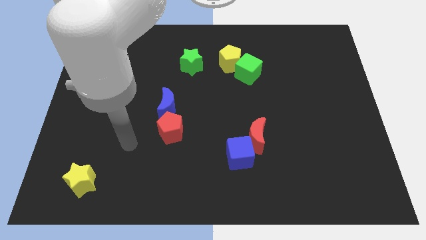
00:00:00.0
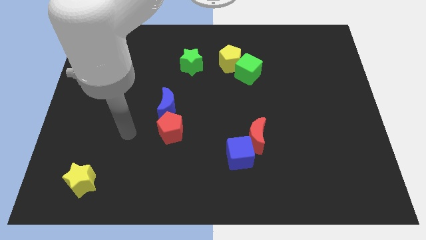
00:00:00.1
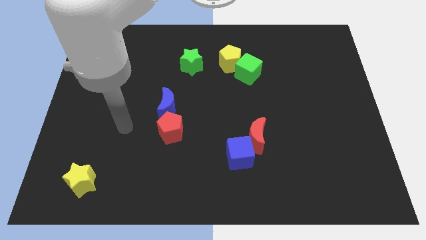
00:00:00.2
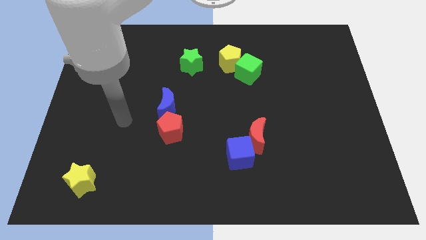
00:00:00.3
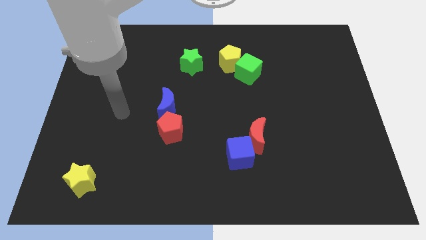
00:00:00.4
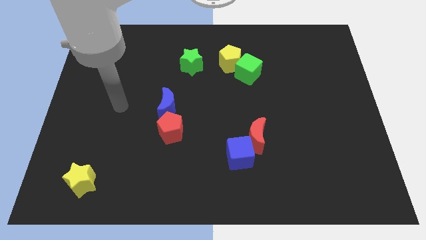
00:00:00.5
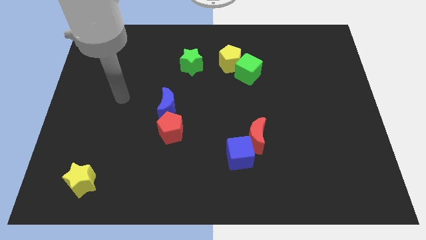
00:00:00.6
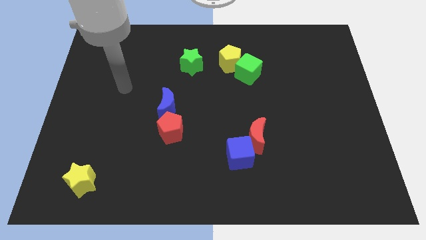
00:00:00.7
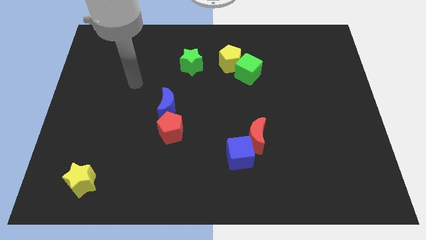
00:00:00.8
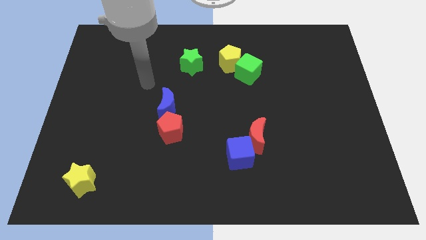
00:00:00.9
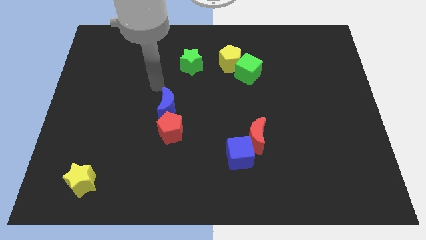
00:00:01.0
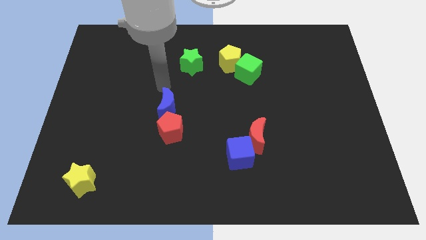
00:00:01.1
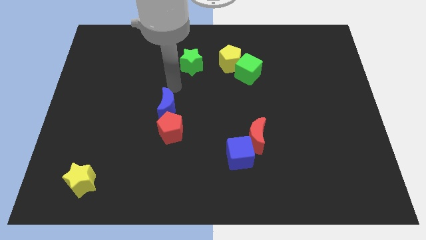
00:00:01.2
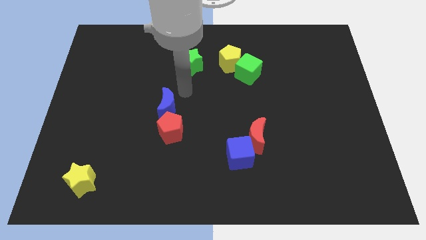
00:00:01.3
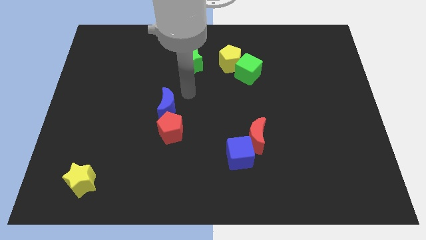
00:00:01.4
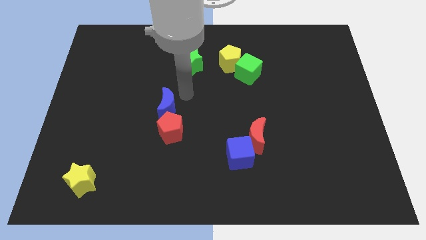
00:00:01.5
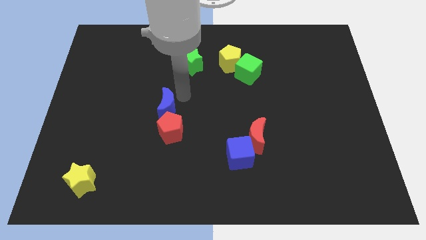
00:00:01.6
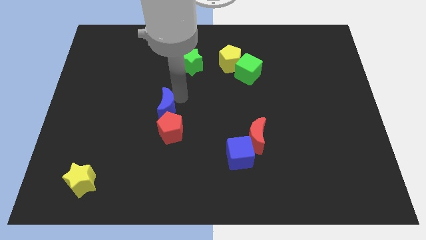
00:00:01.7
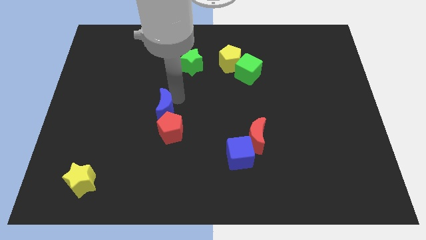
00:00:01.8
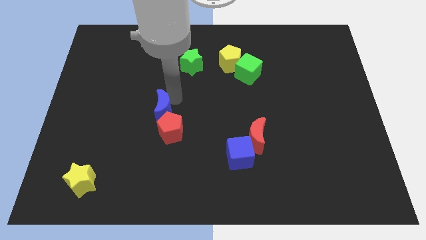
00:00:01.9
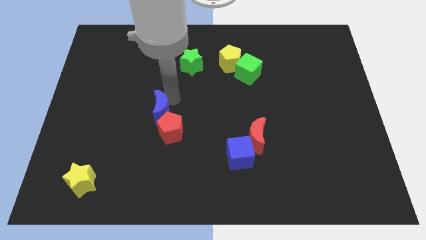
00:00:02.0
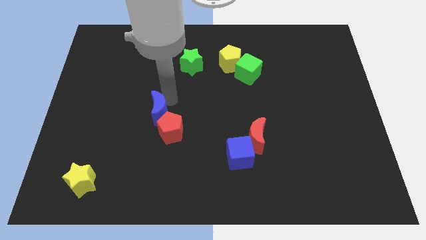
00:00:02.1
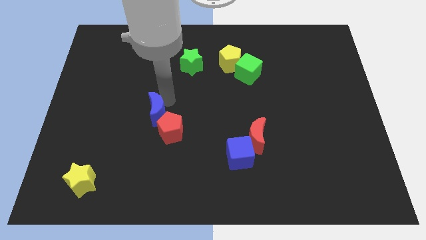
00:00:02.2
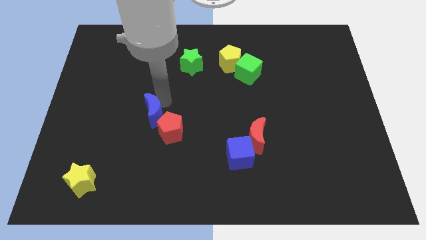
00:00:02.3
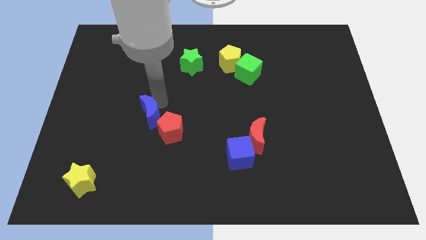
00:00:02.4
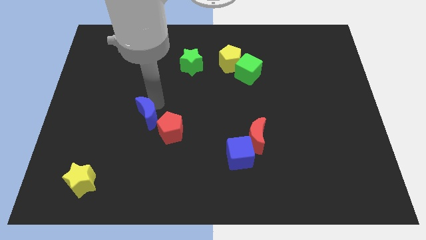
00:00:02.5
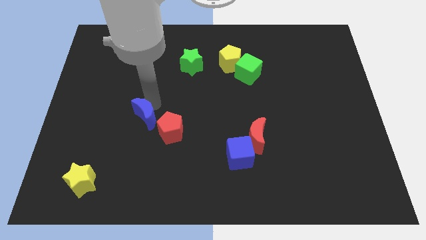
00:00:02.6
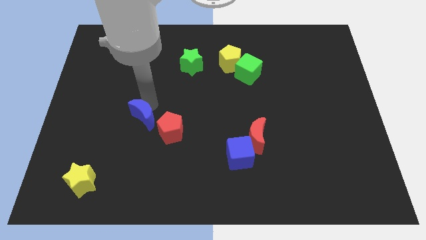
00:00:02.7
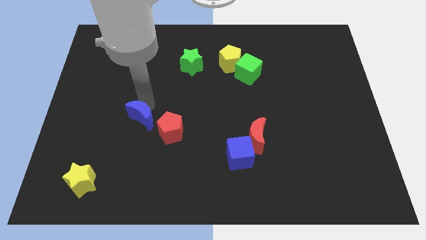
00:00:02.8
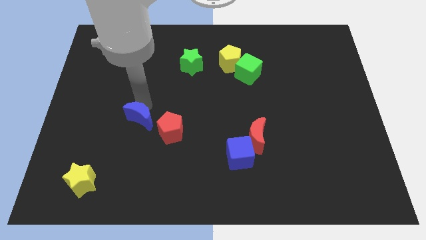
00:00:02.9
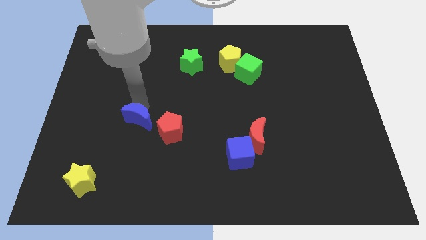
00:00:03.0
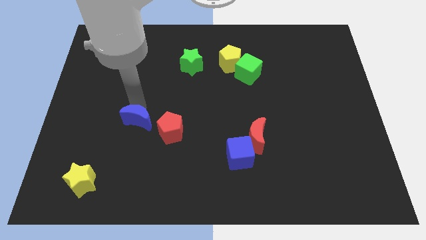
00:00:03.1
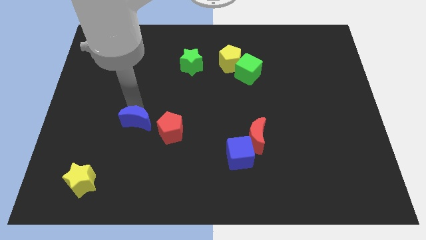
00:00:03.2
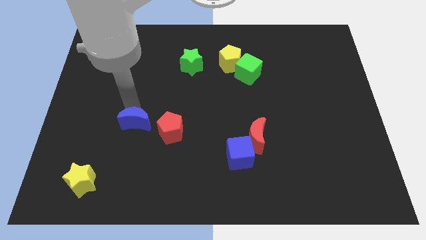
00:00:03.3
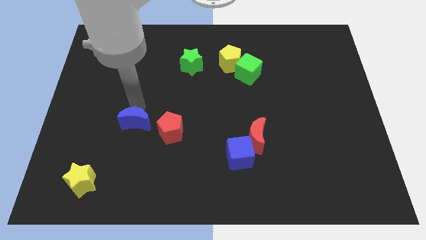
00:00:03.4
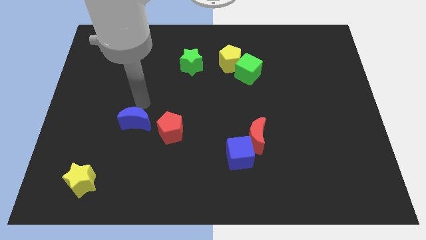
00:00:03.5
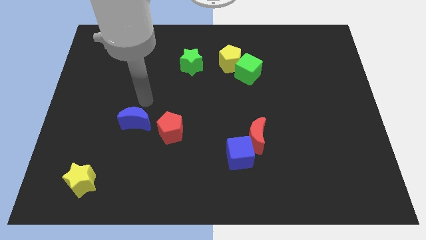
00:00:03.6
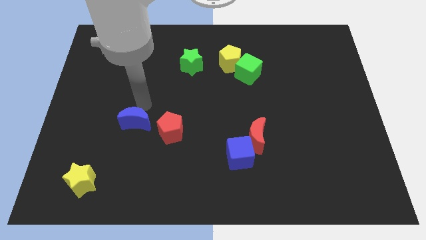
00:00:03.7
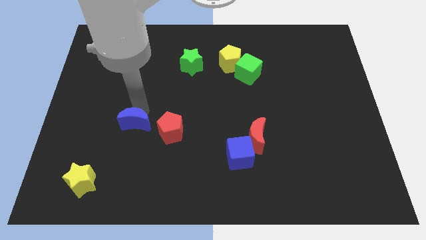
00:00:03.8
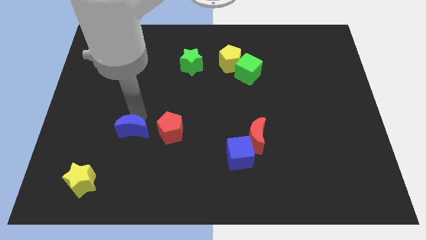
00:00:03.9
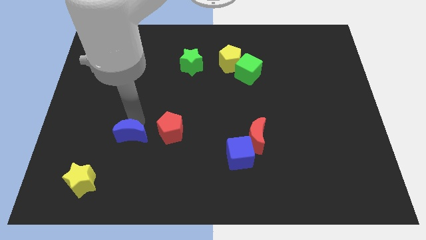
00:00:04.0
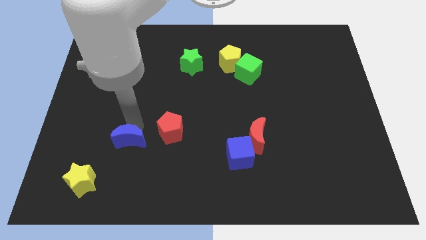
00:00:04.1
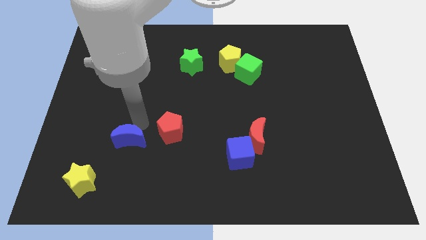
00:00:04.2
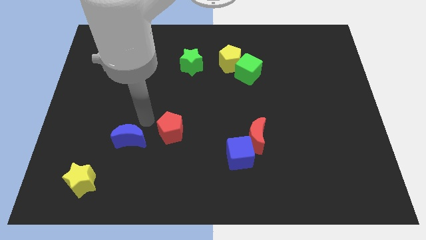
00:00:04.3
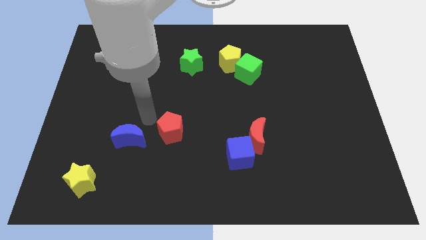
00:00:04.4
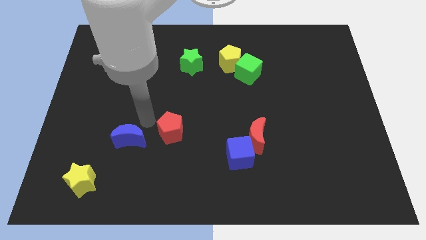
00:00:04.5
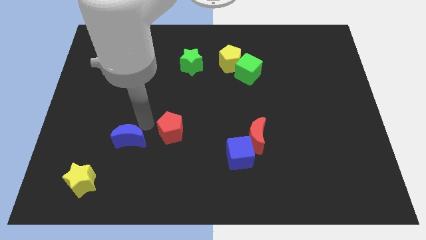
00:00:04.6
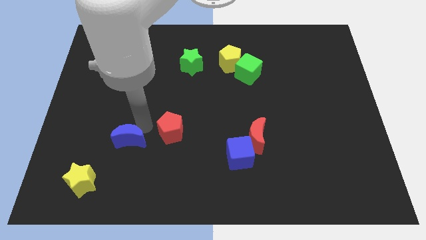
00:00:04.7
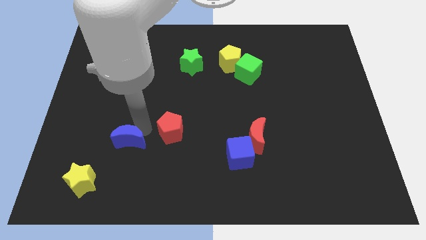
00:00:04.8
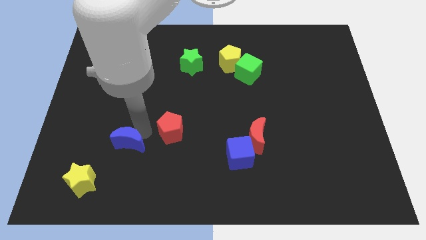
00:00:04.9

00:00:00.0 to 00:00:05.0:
slide the blue moon to the top right of the yellow star

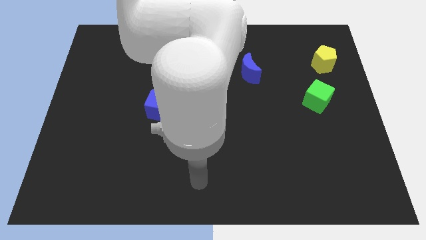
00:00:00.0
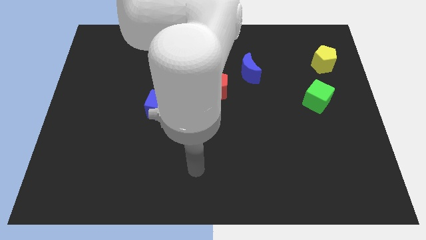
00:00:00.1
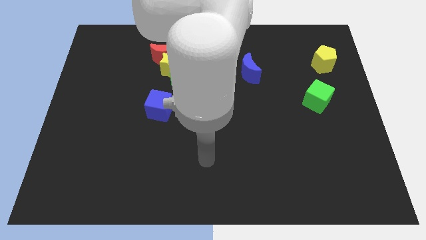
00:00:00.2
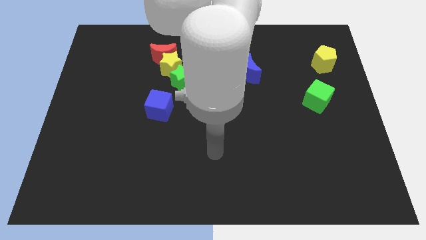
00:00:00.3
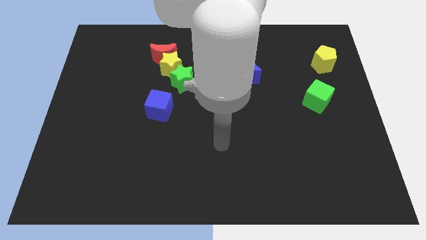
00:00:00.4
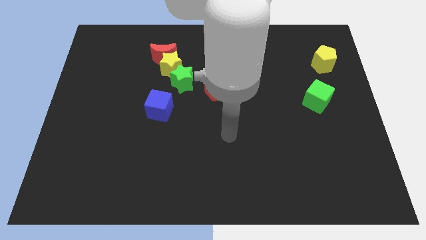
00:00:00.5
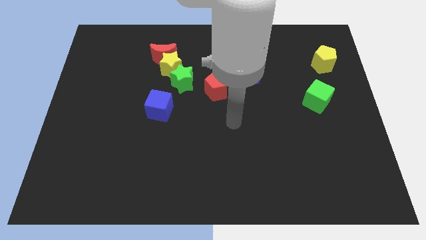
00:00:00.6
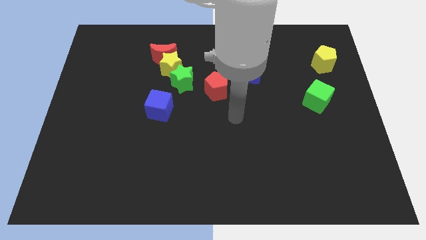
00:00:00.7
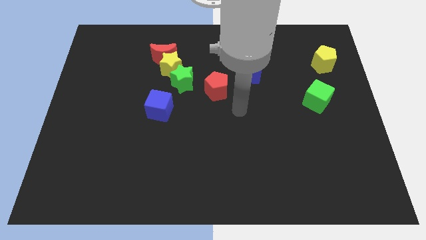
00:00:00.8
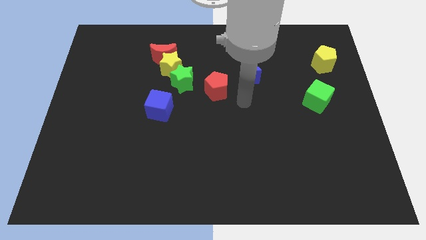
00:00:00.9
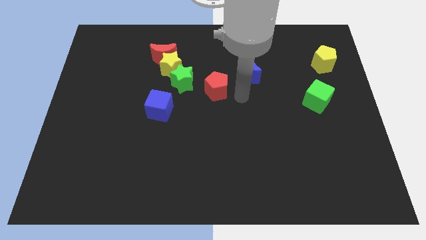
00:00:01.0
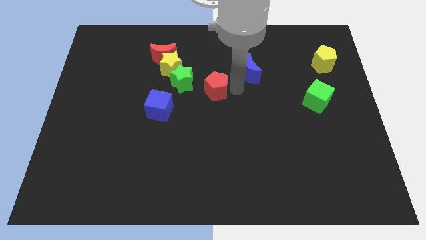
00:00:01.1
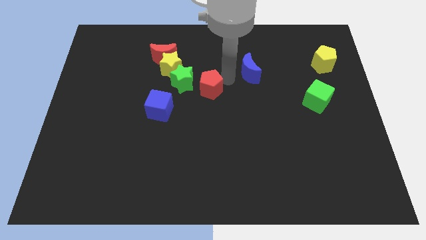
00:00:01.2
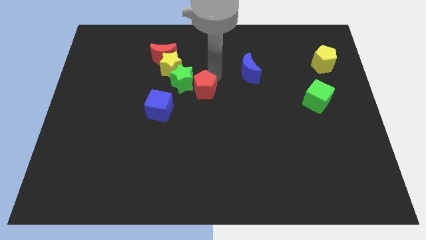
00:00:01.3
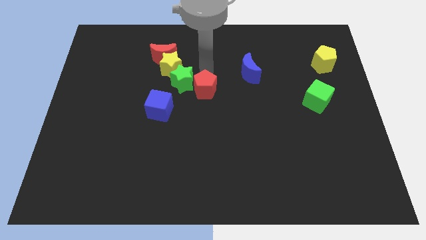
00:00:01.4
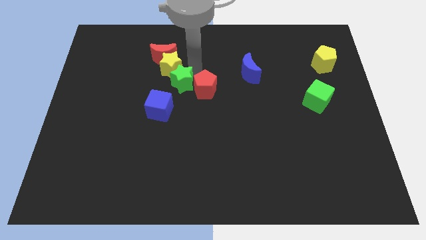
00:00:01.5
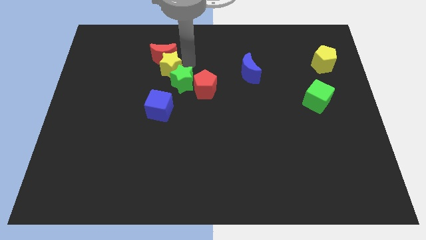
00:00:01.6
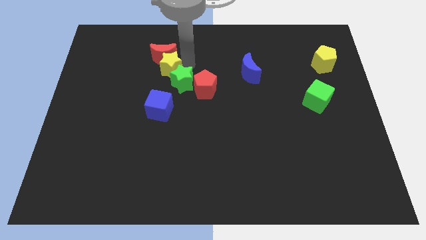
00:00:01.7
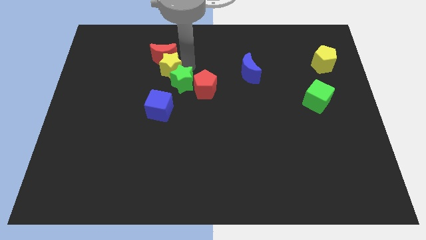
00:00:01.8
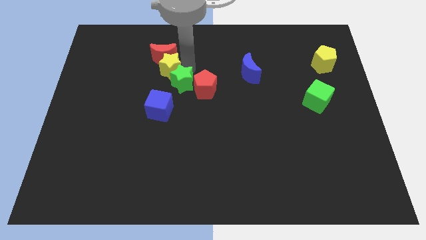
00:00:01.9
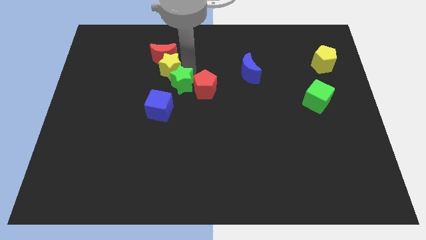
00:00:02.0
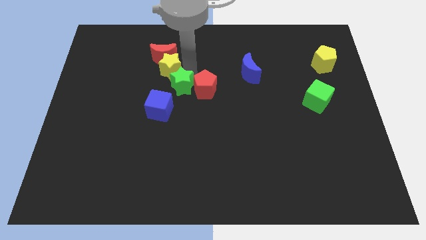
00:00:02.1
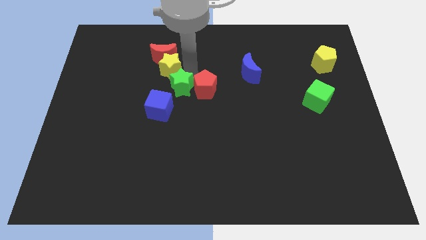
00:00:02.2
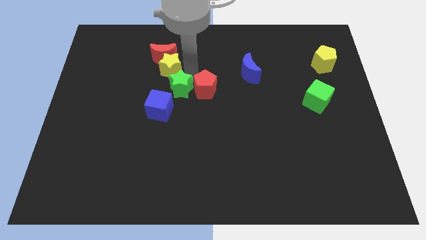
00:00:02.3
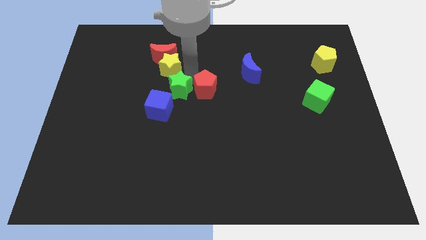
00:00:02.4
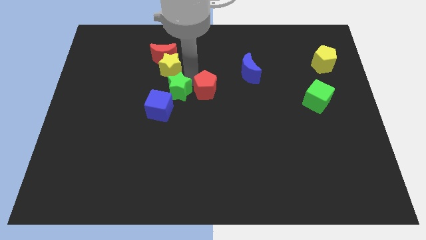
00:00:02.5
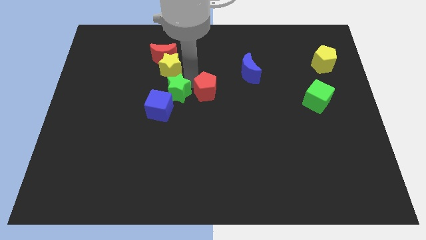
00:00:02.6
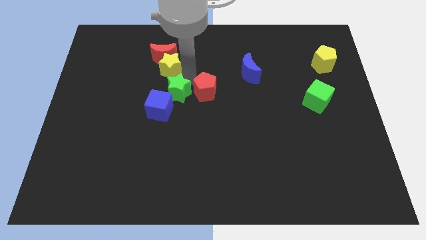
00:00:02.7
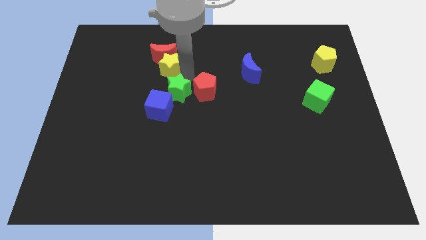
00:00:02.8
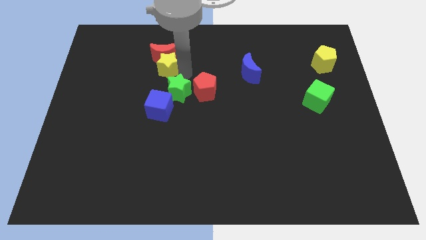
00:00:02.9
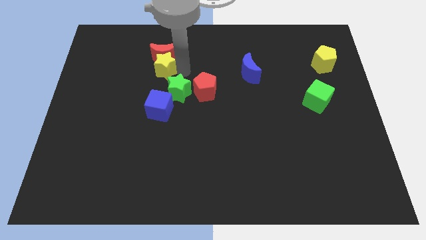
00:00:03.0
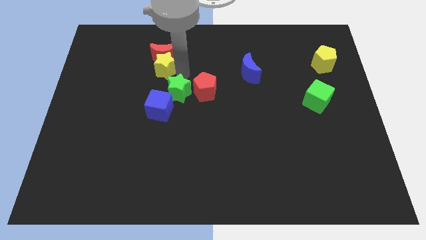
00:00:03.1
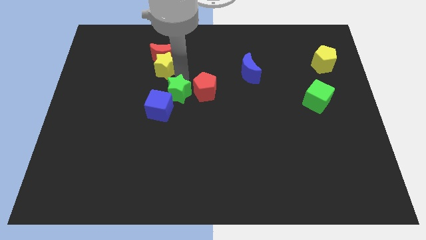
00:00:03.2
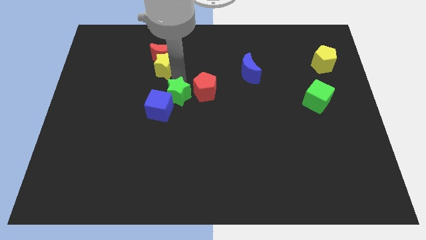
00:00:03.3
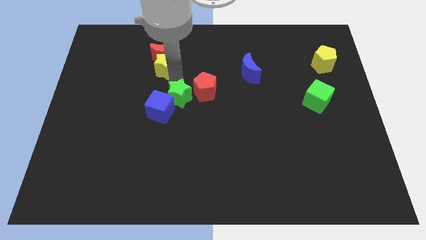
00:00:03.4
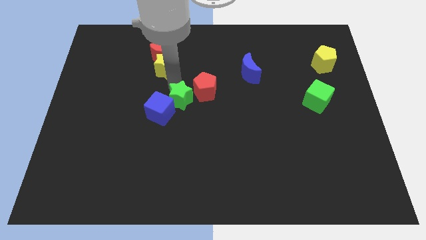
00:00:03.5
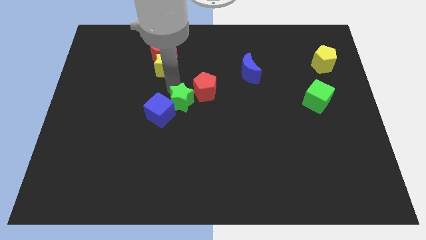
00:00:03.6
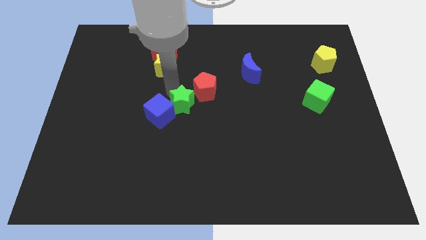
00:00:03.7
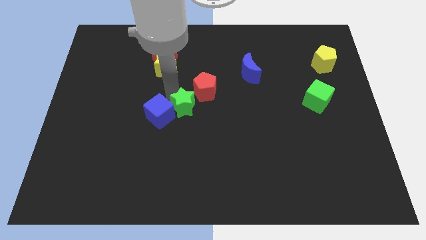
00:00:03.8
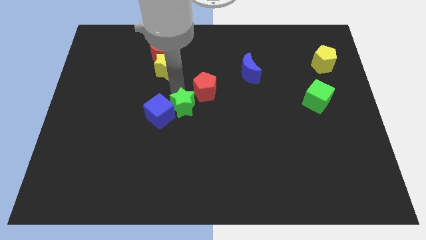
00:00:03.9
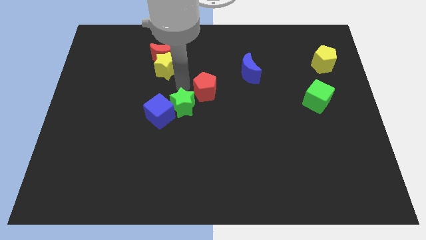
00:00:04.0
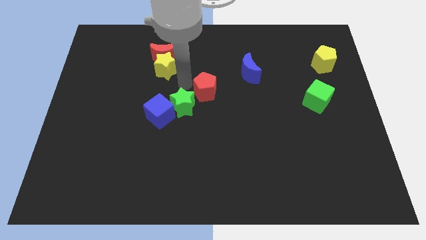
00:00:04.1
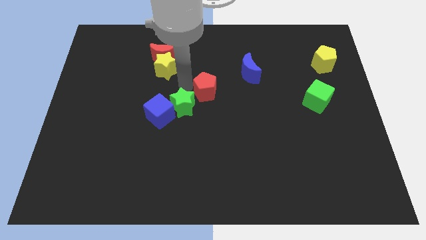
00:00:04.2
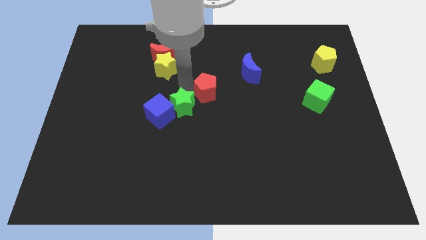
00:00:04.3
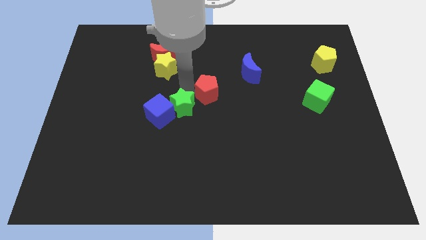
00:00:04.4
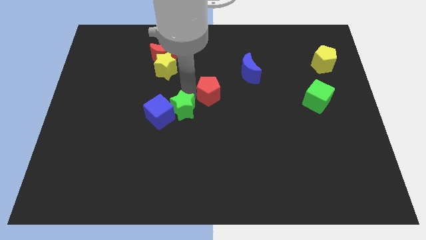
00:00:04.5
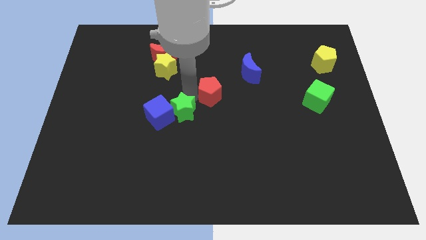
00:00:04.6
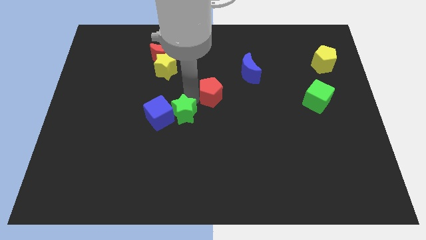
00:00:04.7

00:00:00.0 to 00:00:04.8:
move the green star to the bottom right of the blue cube
